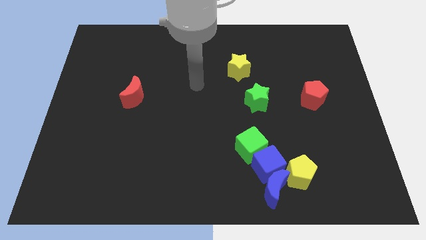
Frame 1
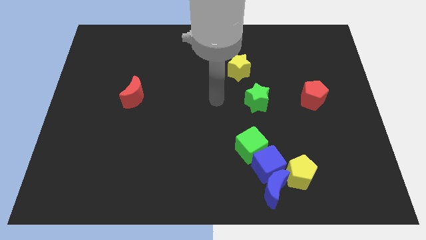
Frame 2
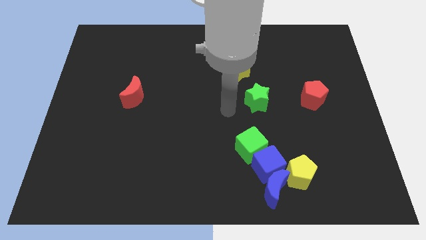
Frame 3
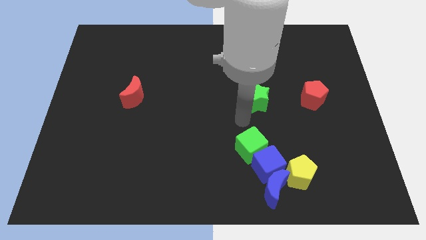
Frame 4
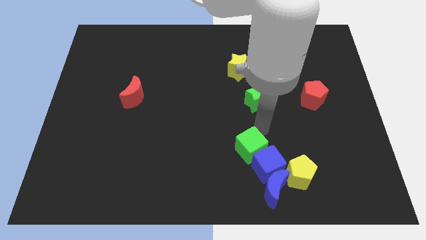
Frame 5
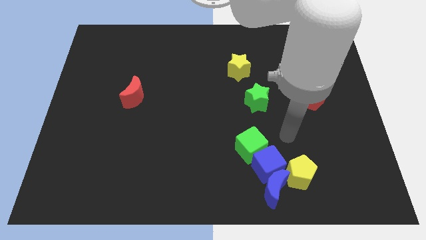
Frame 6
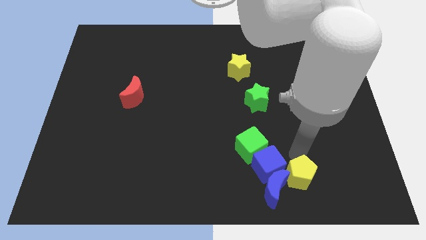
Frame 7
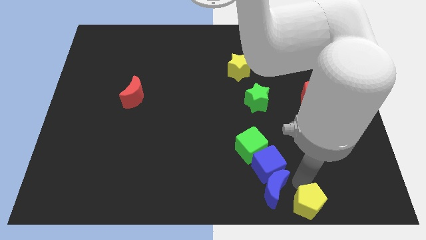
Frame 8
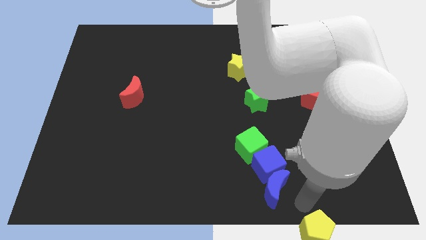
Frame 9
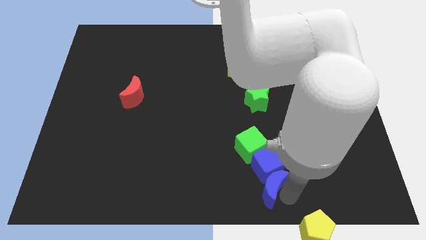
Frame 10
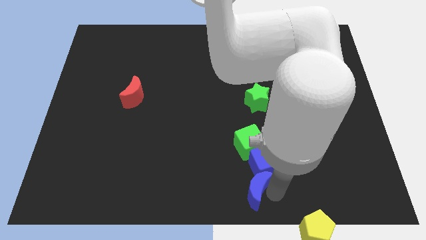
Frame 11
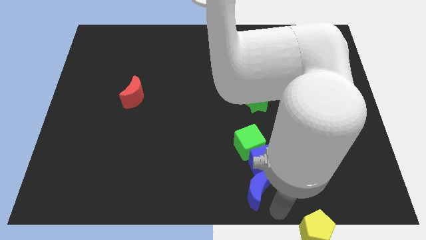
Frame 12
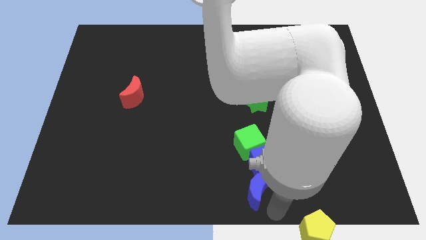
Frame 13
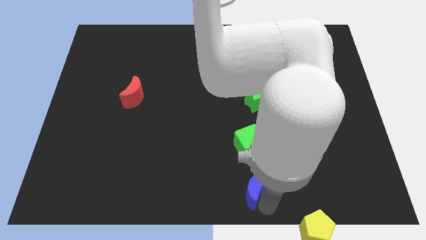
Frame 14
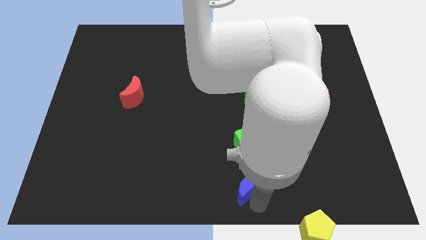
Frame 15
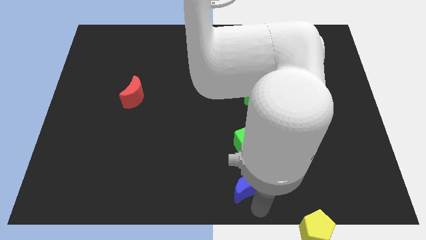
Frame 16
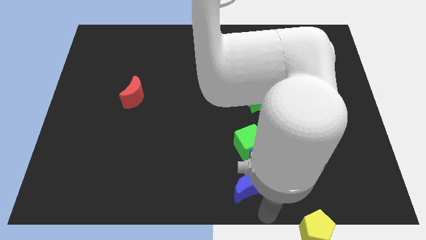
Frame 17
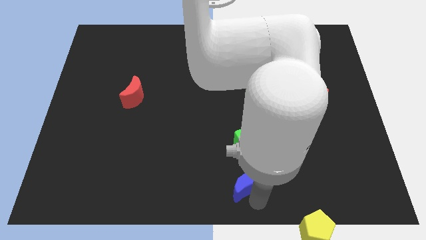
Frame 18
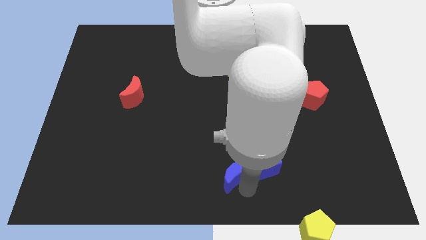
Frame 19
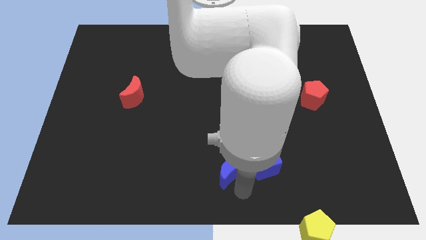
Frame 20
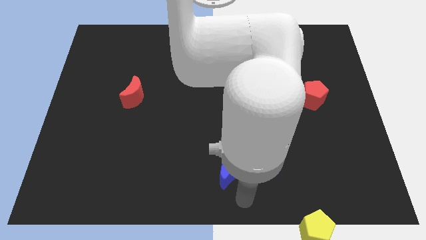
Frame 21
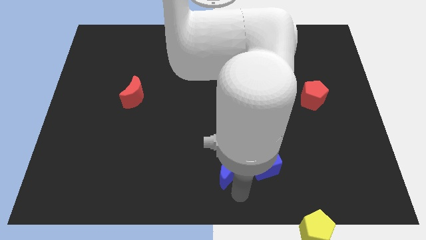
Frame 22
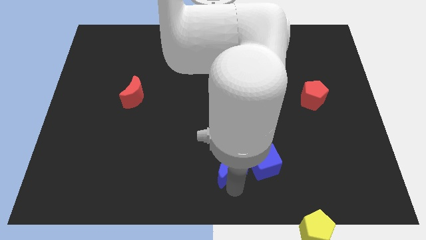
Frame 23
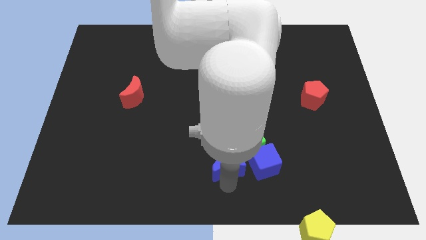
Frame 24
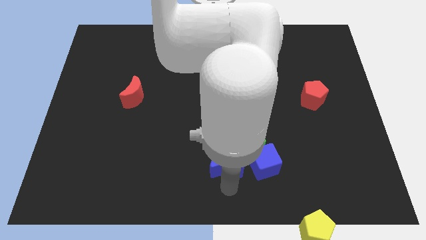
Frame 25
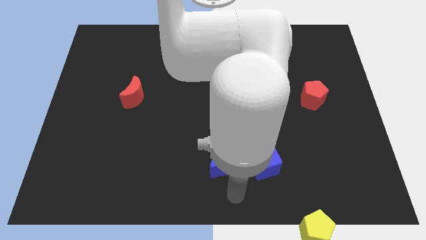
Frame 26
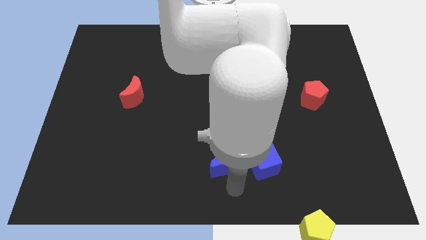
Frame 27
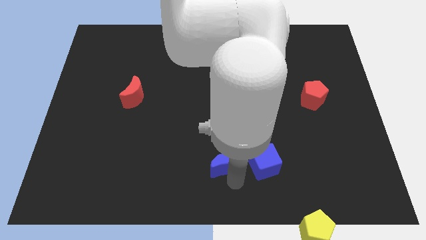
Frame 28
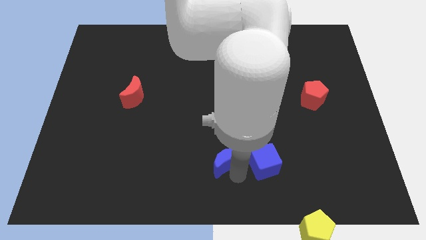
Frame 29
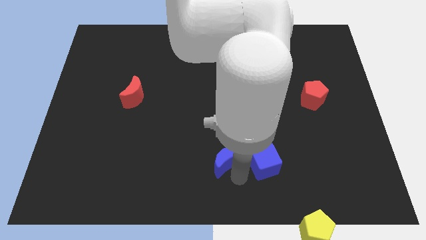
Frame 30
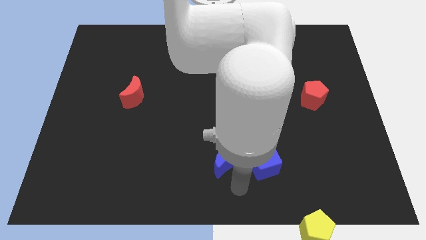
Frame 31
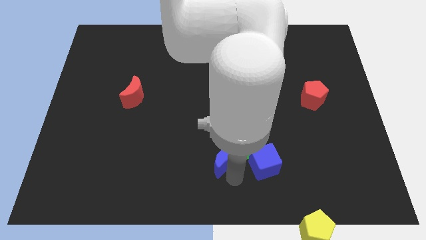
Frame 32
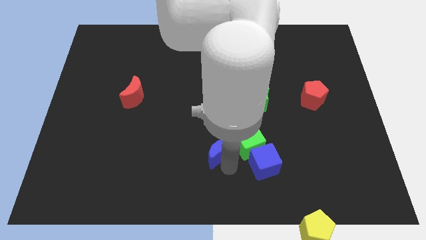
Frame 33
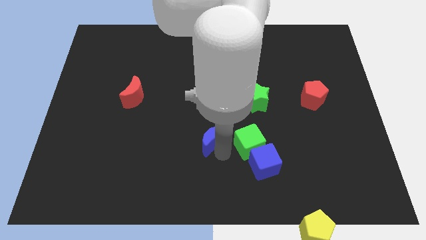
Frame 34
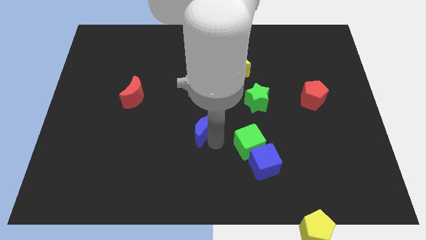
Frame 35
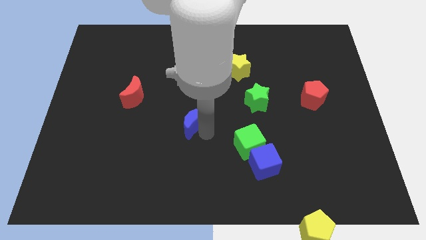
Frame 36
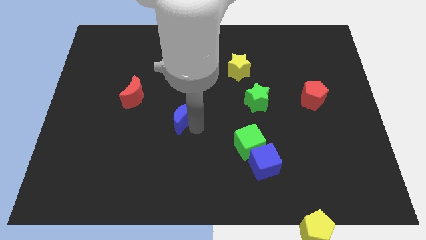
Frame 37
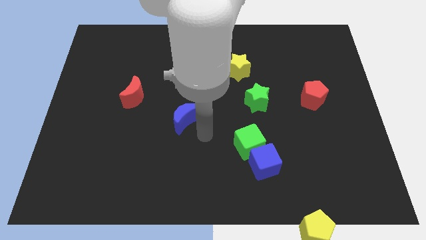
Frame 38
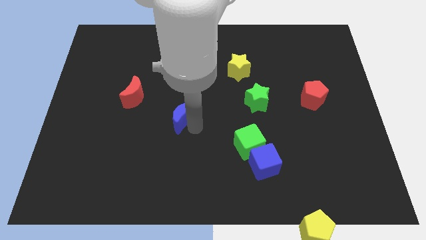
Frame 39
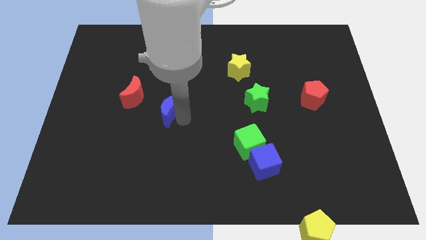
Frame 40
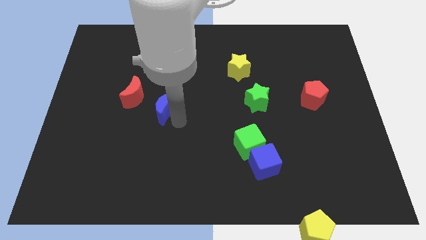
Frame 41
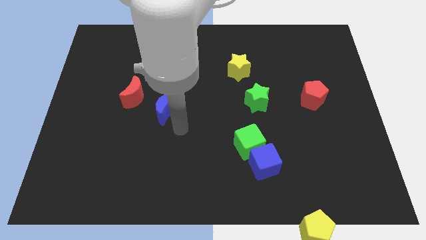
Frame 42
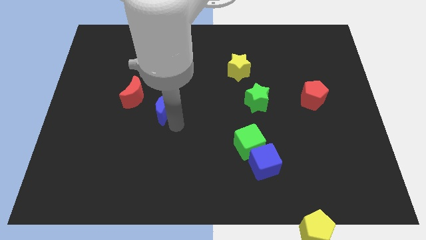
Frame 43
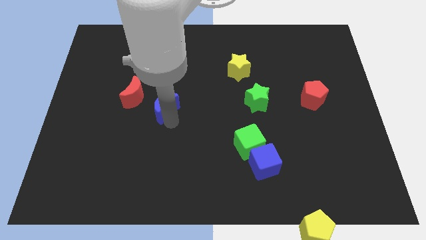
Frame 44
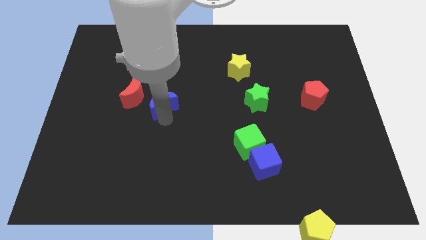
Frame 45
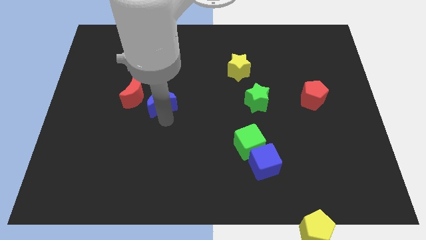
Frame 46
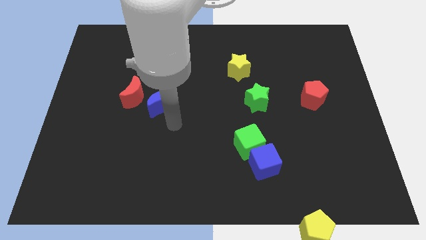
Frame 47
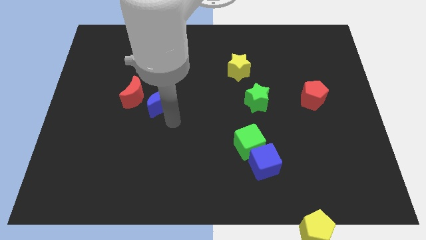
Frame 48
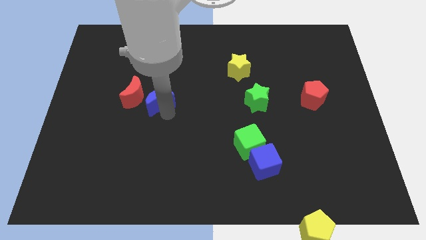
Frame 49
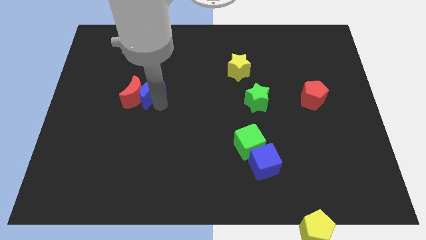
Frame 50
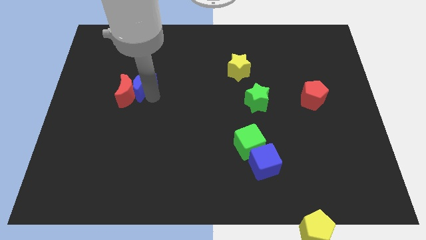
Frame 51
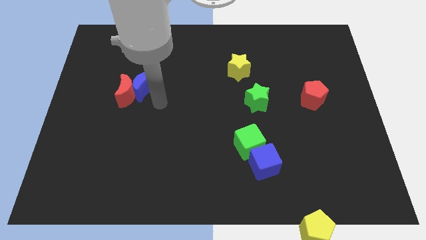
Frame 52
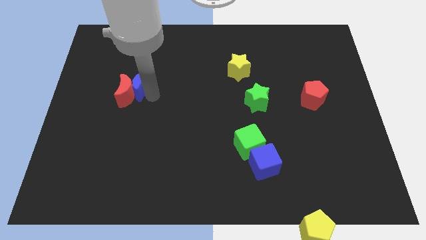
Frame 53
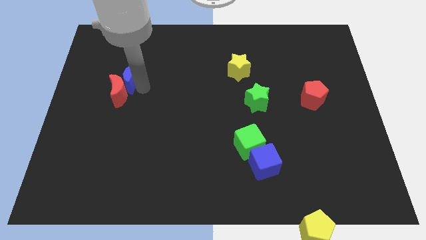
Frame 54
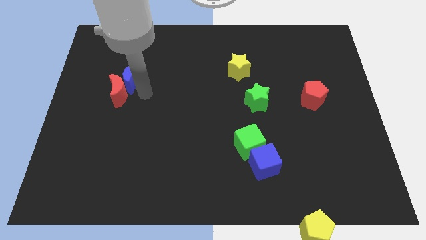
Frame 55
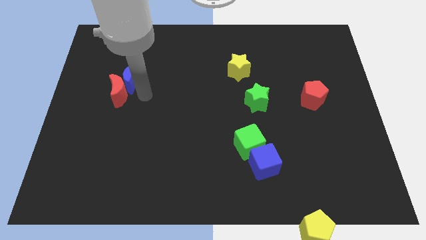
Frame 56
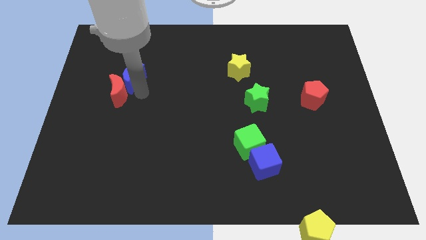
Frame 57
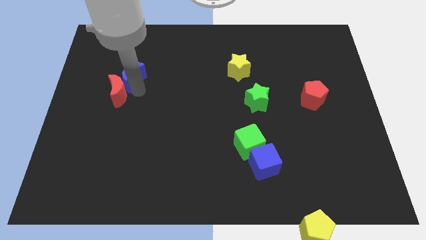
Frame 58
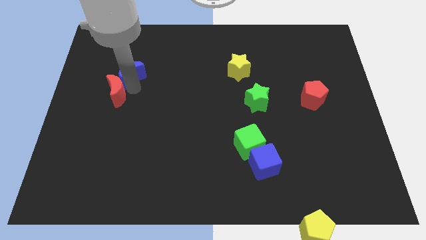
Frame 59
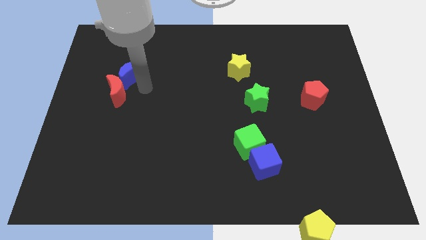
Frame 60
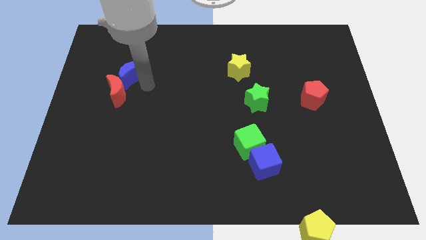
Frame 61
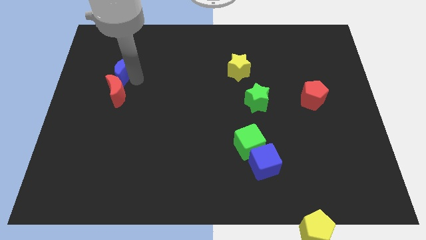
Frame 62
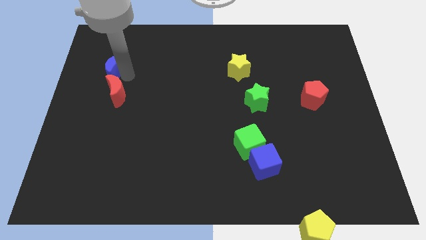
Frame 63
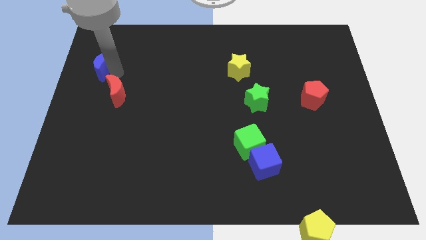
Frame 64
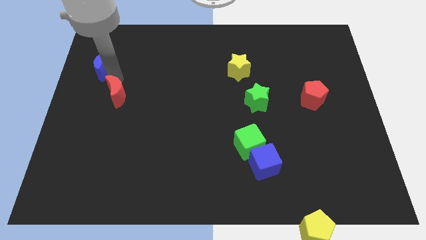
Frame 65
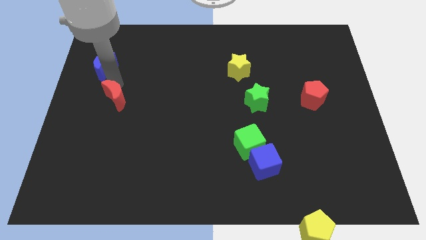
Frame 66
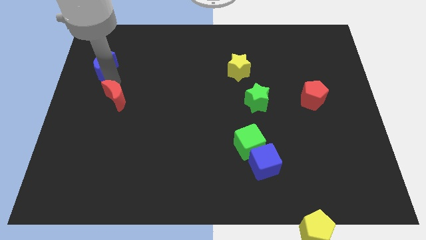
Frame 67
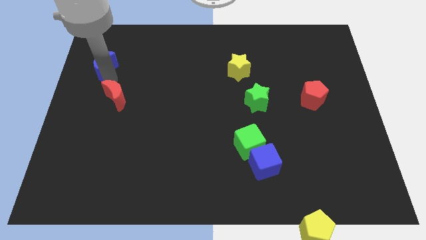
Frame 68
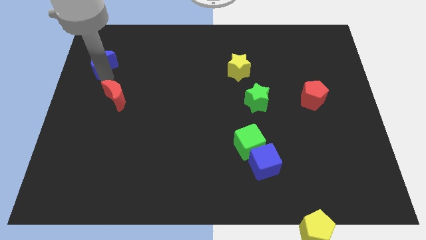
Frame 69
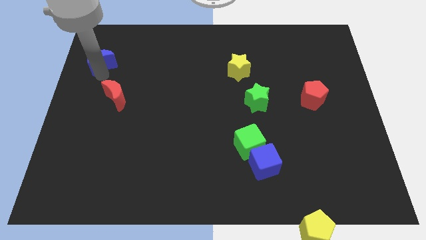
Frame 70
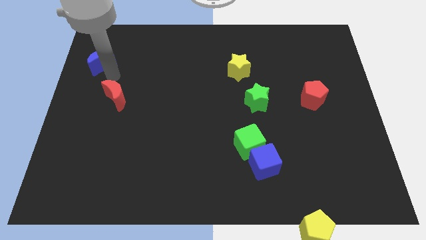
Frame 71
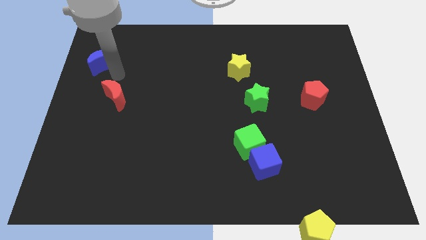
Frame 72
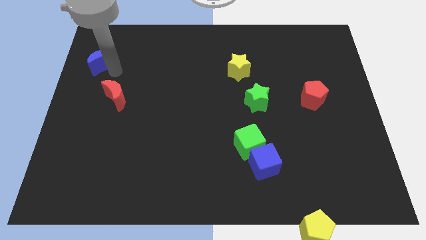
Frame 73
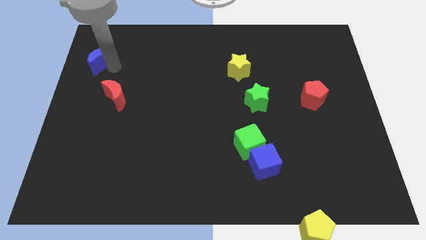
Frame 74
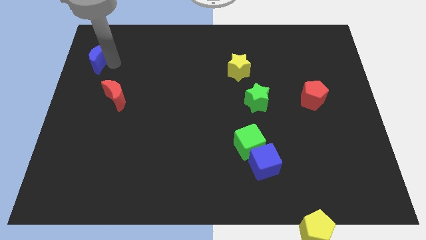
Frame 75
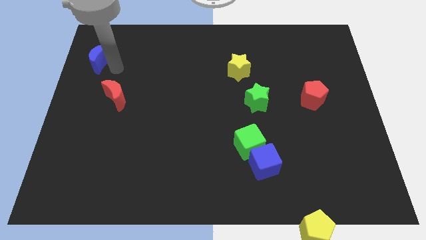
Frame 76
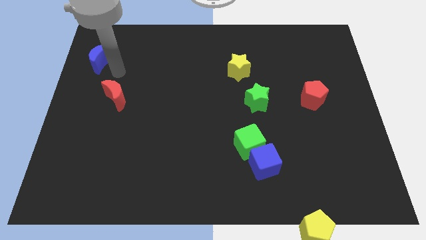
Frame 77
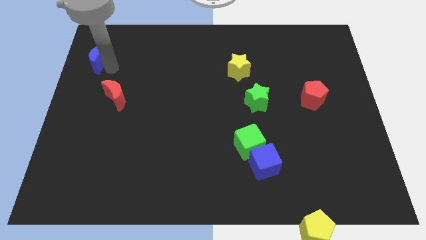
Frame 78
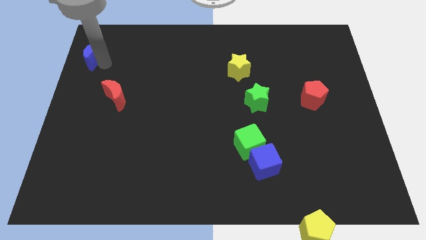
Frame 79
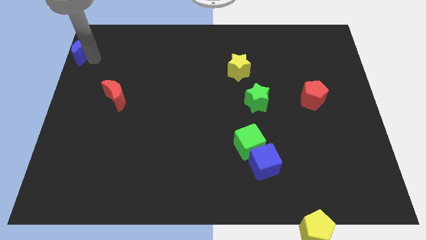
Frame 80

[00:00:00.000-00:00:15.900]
slide the blue moon to the top left corner
